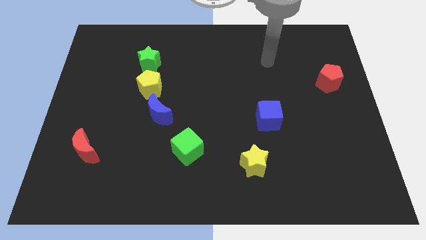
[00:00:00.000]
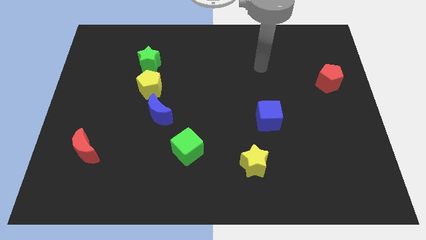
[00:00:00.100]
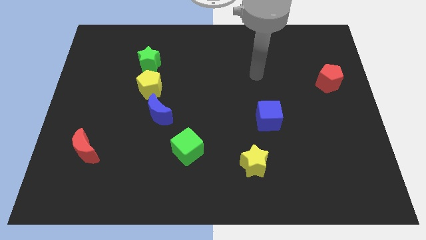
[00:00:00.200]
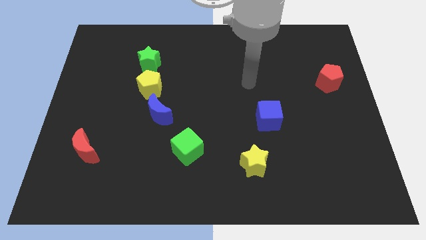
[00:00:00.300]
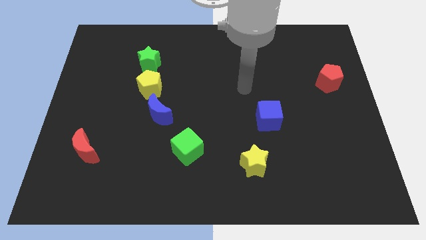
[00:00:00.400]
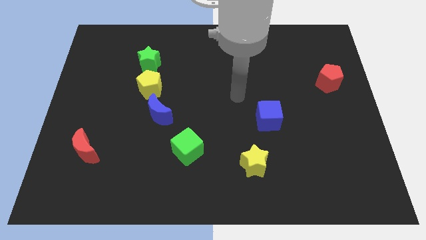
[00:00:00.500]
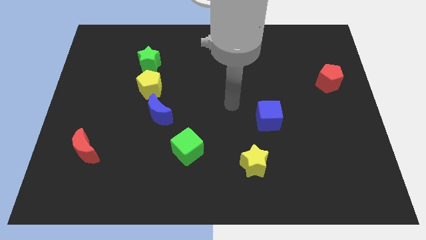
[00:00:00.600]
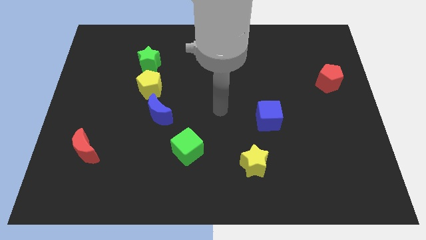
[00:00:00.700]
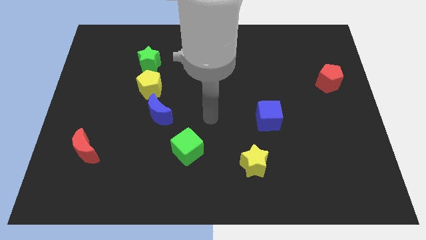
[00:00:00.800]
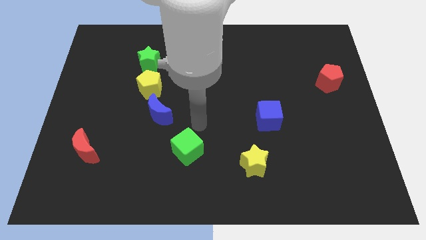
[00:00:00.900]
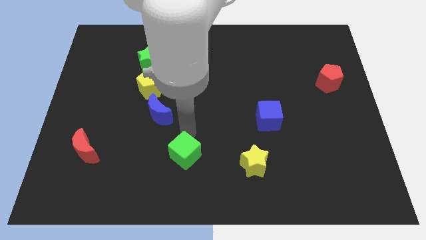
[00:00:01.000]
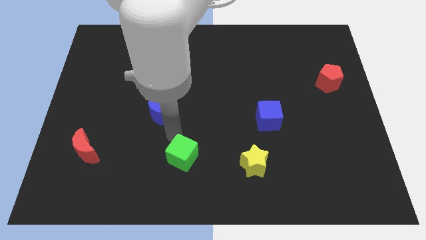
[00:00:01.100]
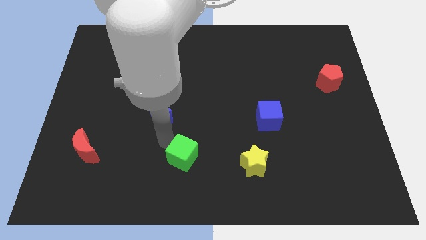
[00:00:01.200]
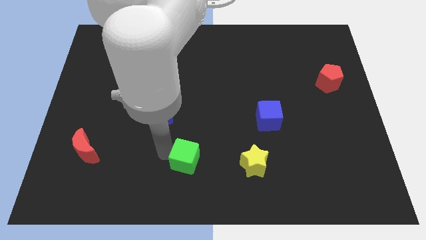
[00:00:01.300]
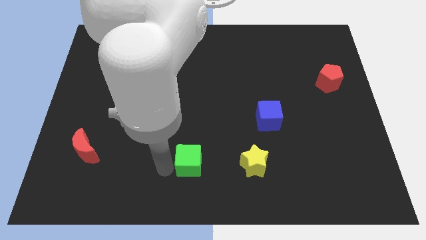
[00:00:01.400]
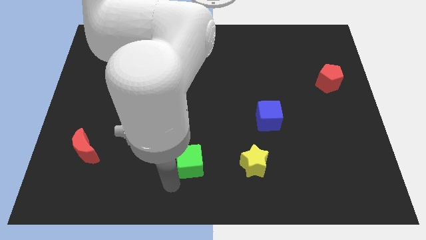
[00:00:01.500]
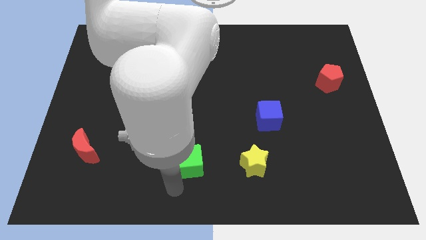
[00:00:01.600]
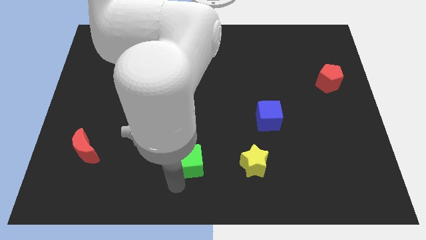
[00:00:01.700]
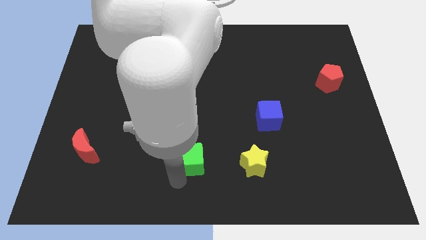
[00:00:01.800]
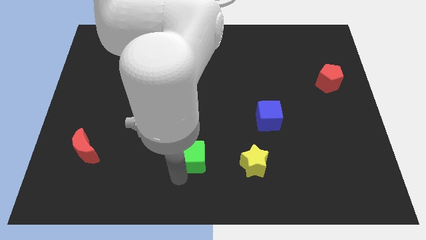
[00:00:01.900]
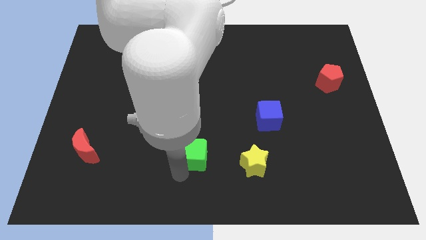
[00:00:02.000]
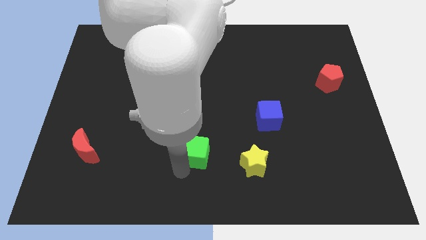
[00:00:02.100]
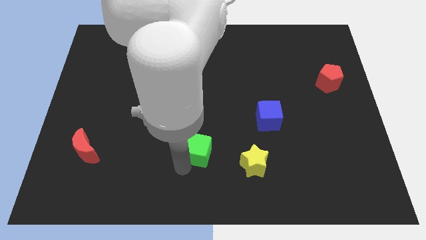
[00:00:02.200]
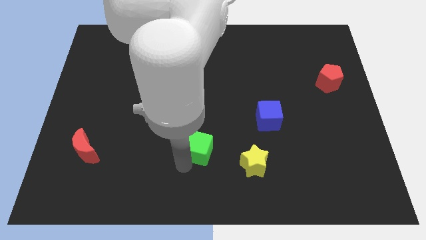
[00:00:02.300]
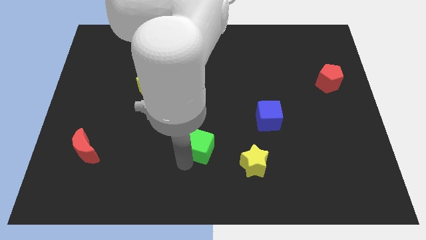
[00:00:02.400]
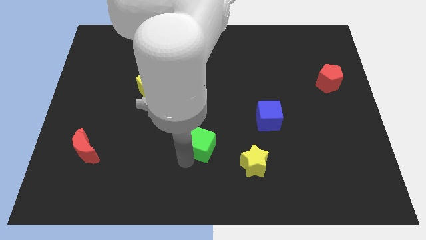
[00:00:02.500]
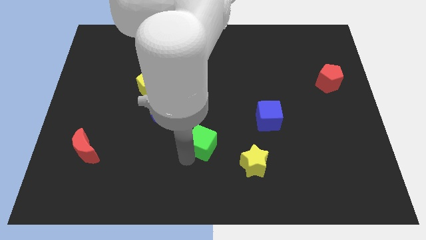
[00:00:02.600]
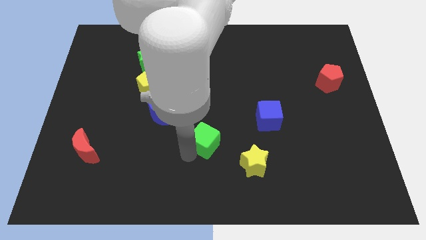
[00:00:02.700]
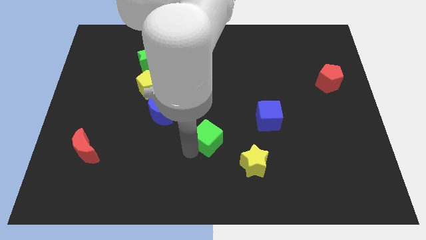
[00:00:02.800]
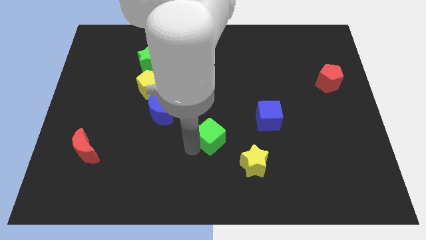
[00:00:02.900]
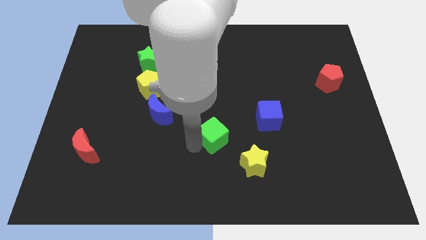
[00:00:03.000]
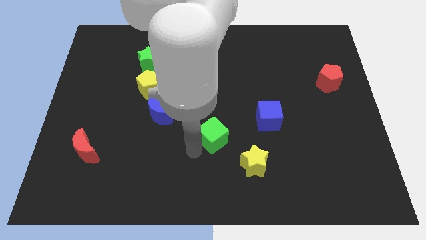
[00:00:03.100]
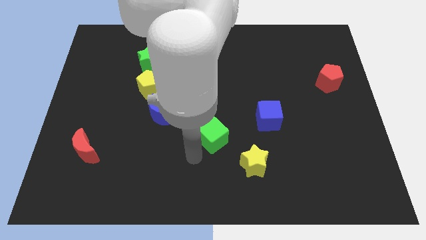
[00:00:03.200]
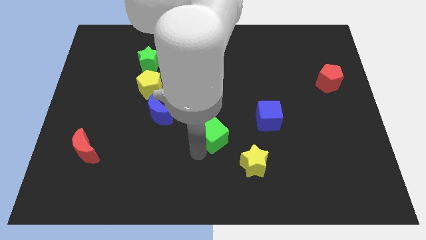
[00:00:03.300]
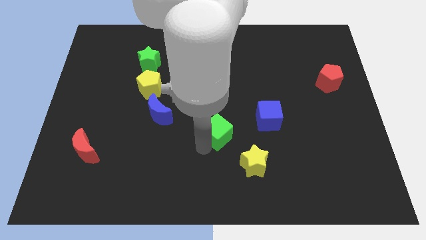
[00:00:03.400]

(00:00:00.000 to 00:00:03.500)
slightly move the green cube up and then right

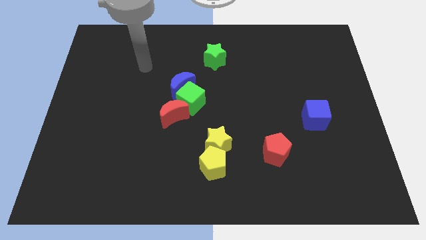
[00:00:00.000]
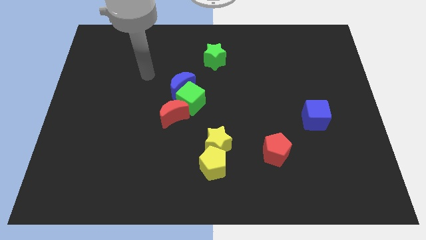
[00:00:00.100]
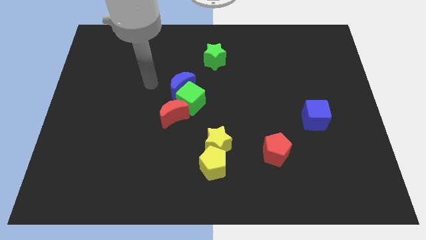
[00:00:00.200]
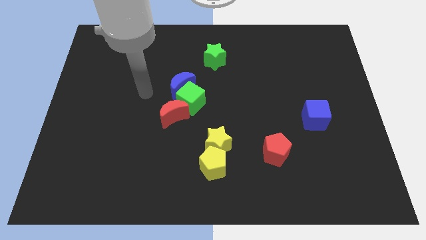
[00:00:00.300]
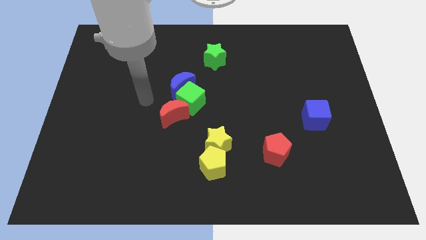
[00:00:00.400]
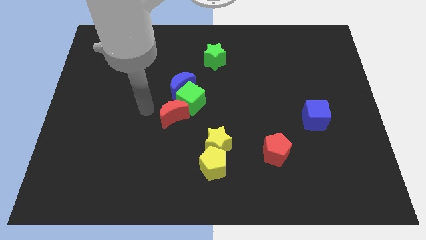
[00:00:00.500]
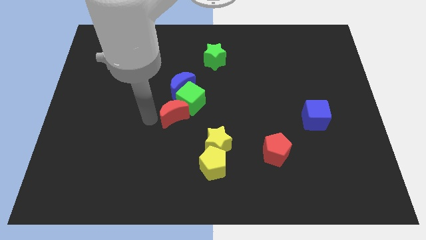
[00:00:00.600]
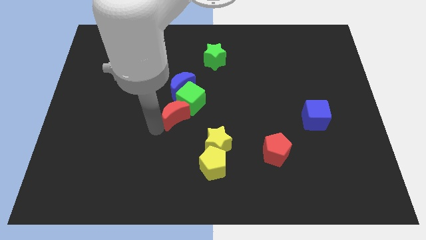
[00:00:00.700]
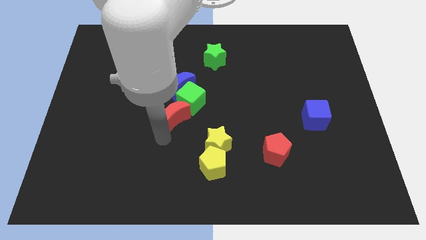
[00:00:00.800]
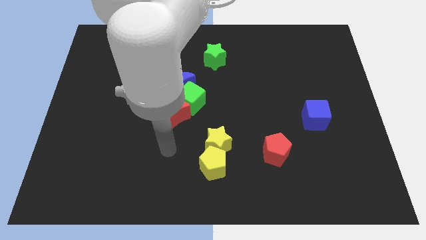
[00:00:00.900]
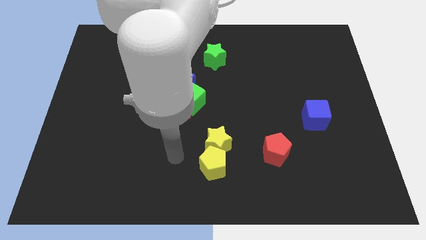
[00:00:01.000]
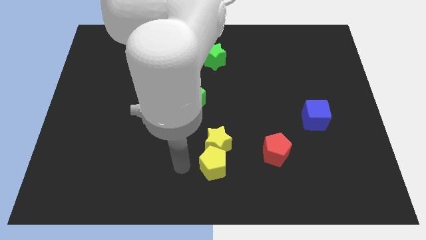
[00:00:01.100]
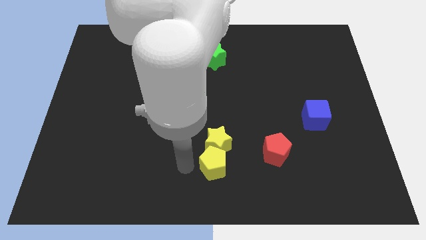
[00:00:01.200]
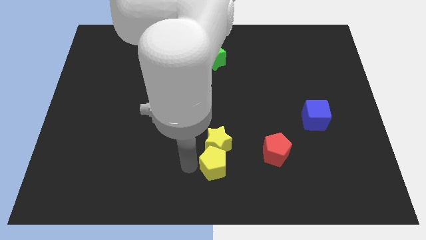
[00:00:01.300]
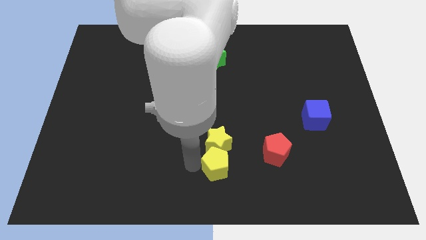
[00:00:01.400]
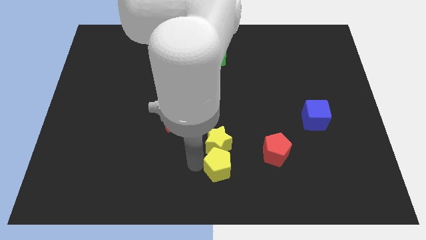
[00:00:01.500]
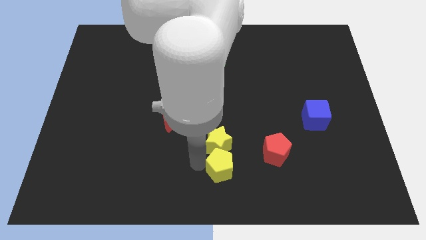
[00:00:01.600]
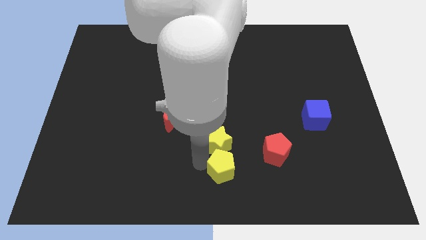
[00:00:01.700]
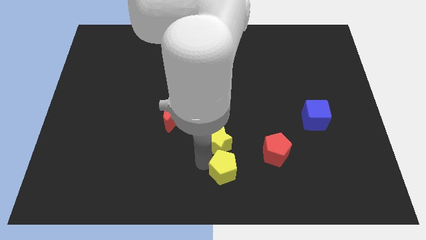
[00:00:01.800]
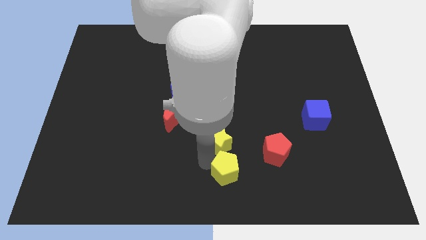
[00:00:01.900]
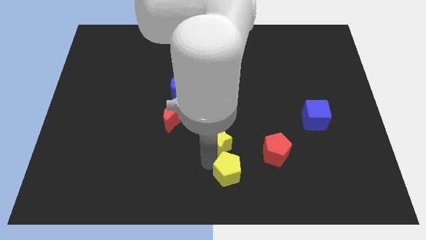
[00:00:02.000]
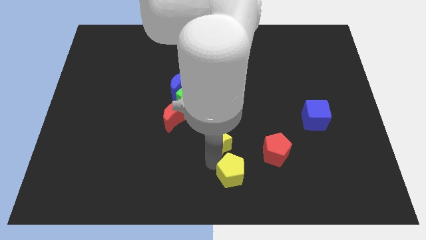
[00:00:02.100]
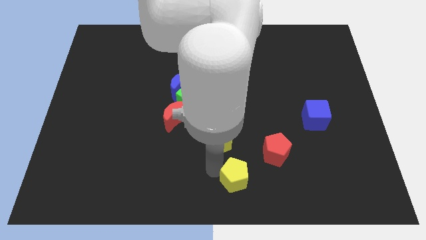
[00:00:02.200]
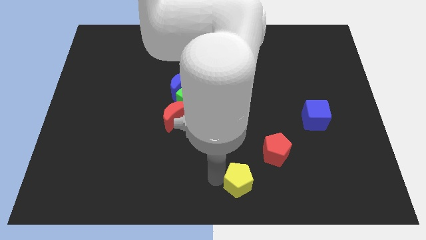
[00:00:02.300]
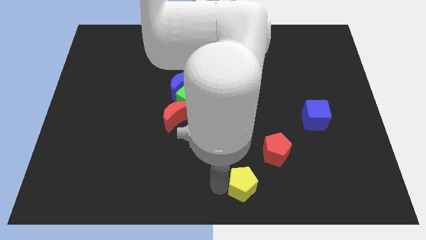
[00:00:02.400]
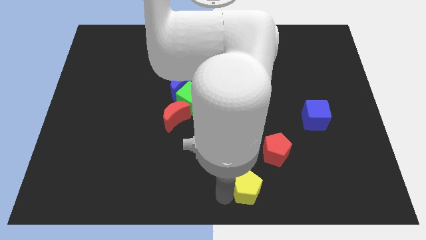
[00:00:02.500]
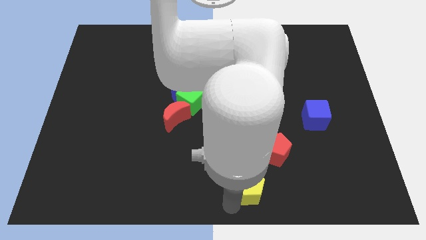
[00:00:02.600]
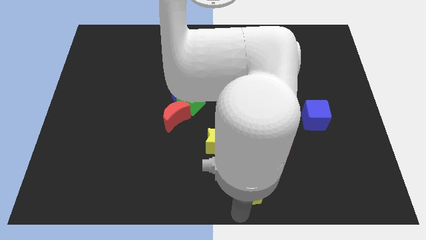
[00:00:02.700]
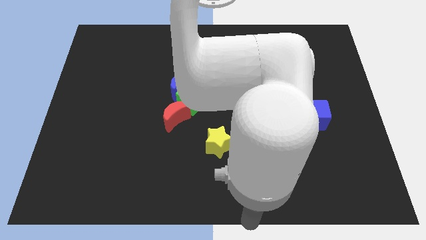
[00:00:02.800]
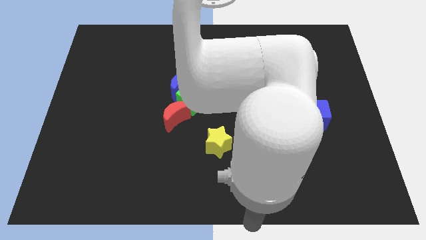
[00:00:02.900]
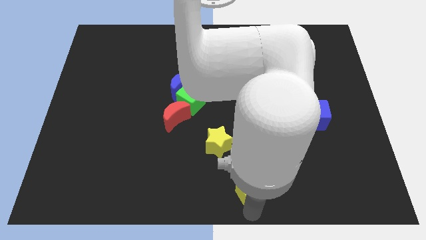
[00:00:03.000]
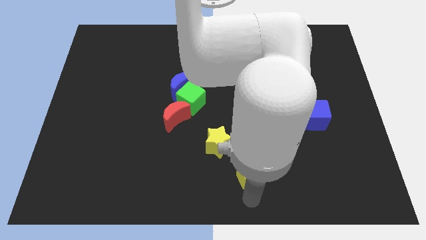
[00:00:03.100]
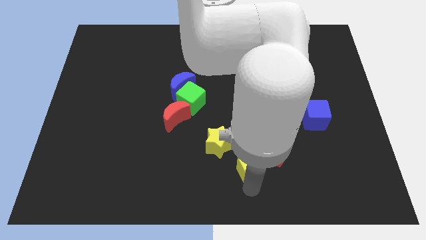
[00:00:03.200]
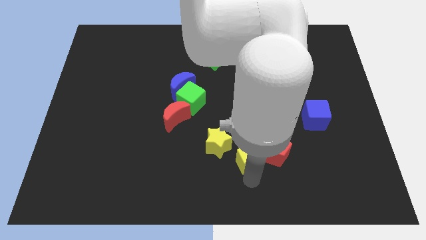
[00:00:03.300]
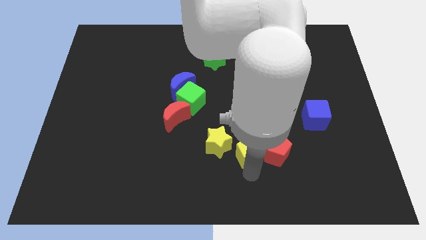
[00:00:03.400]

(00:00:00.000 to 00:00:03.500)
push the yellow pentagon upwards and then to the right slightly

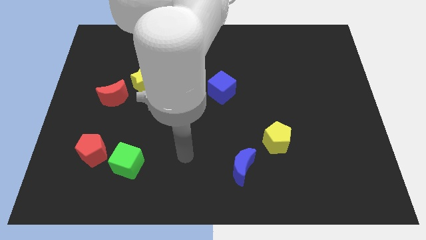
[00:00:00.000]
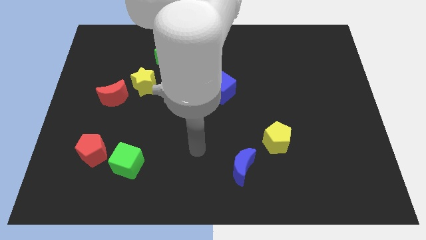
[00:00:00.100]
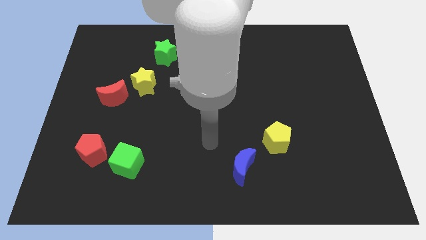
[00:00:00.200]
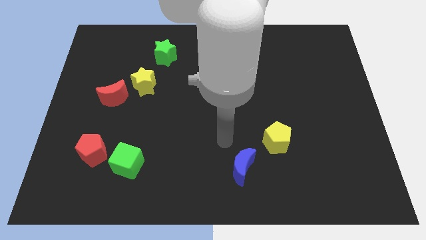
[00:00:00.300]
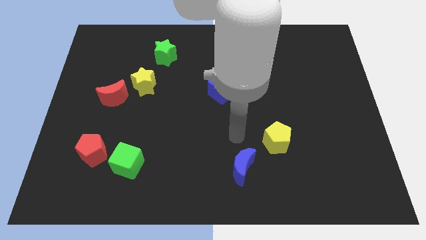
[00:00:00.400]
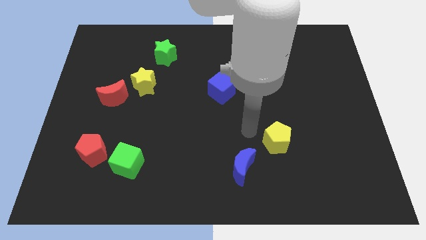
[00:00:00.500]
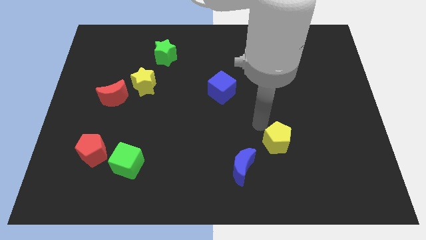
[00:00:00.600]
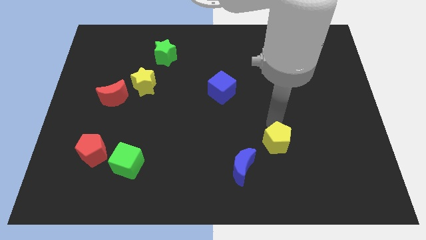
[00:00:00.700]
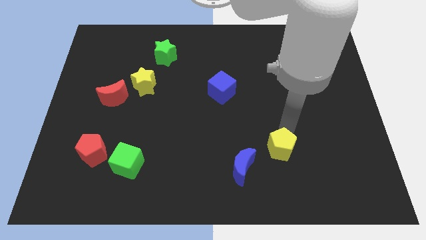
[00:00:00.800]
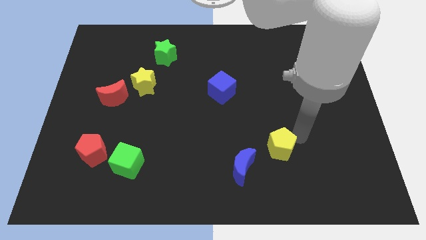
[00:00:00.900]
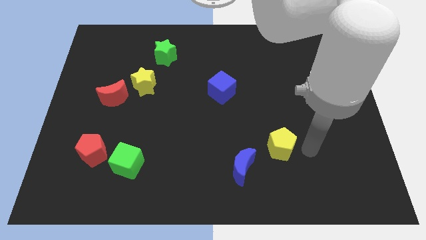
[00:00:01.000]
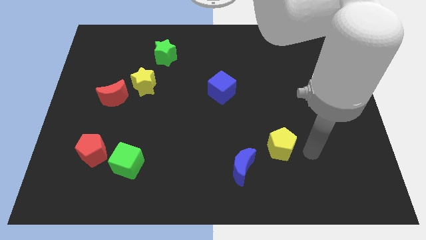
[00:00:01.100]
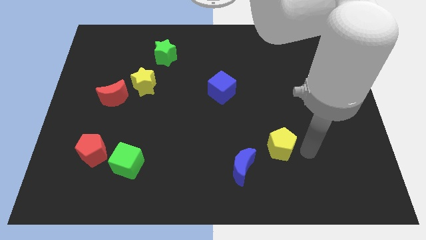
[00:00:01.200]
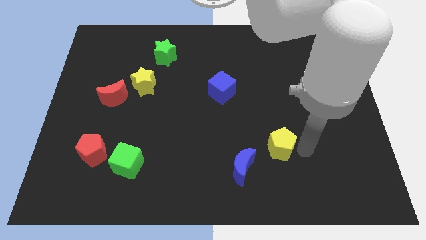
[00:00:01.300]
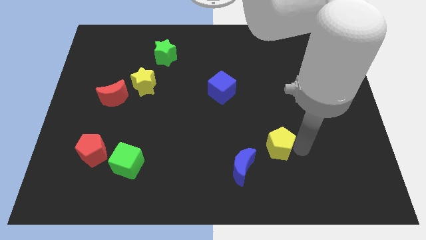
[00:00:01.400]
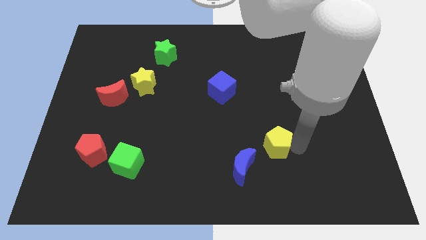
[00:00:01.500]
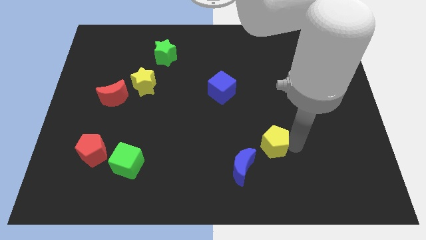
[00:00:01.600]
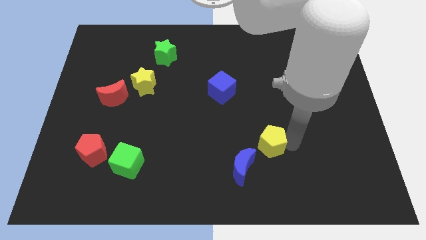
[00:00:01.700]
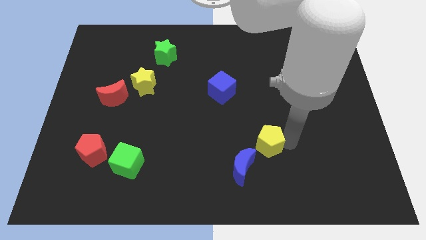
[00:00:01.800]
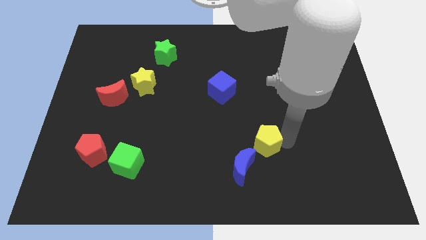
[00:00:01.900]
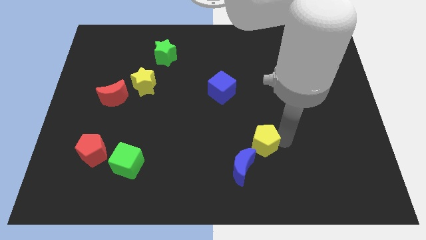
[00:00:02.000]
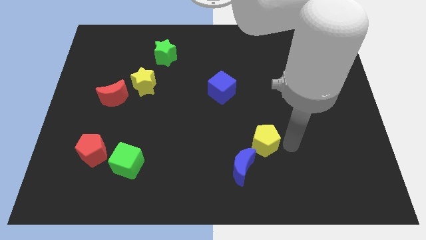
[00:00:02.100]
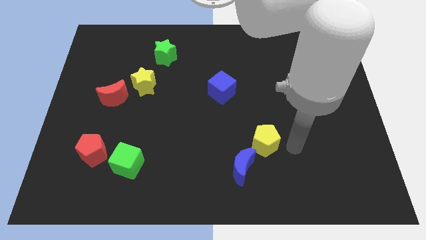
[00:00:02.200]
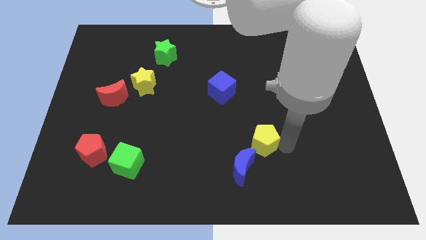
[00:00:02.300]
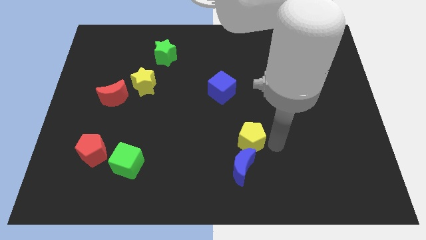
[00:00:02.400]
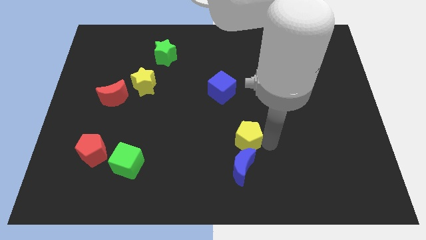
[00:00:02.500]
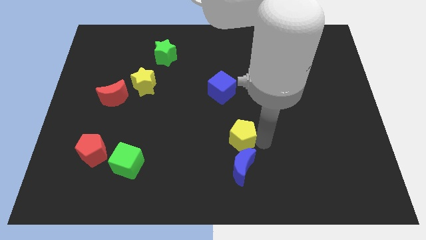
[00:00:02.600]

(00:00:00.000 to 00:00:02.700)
slightly slide the yellow pentagon to the left
